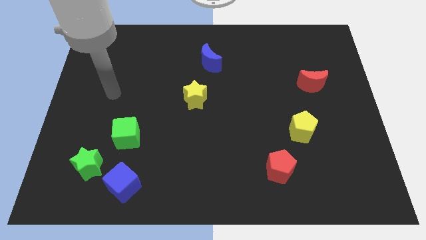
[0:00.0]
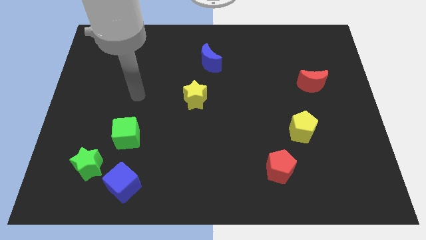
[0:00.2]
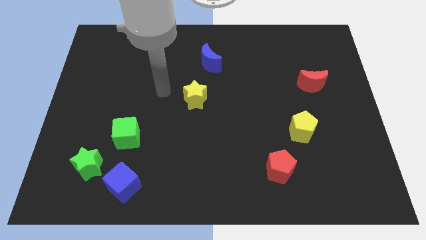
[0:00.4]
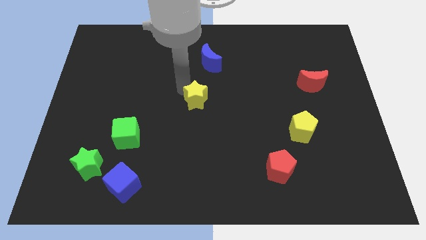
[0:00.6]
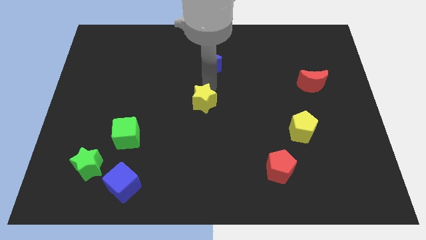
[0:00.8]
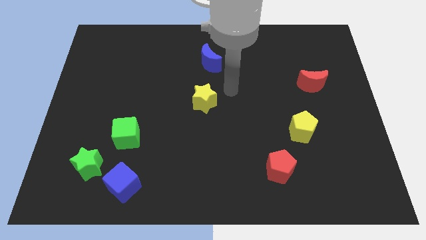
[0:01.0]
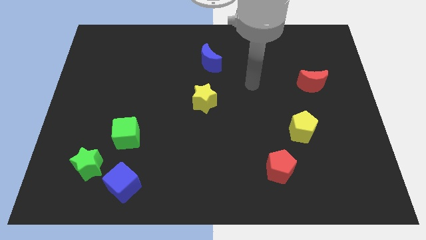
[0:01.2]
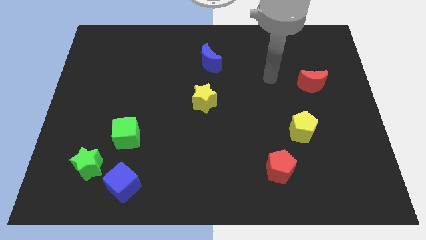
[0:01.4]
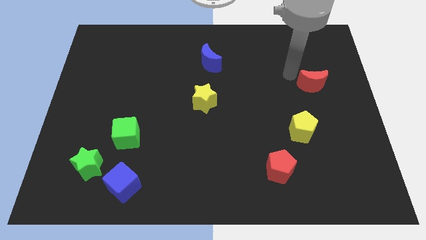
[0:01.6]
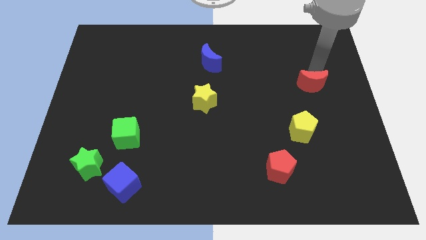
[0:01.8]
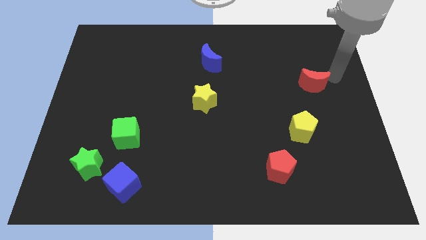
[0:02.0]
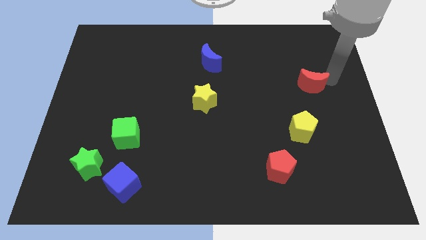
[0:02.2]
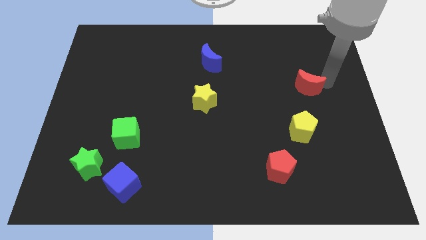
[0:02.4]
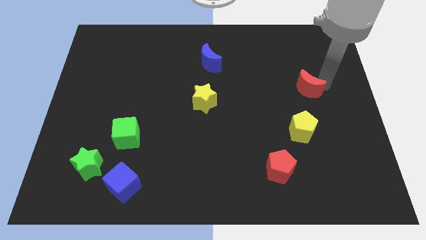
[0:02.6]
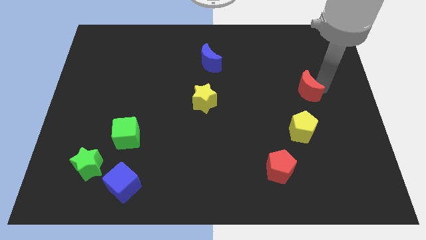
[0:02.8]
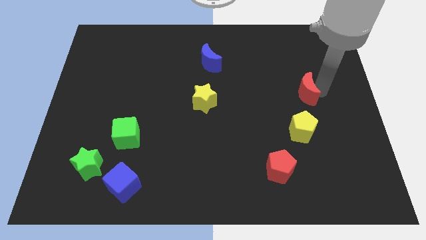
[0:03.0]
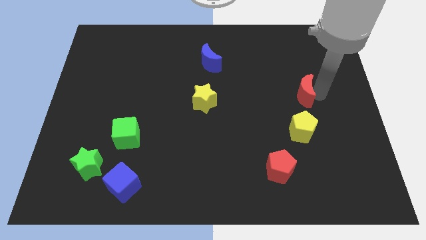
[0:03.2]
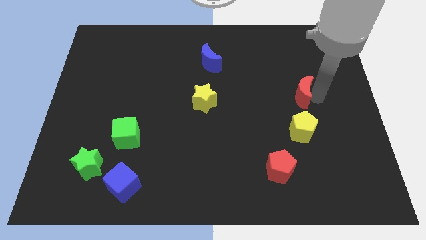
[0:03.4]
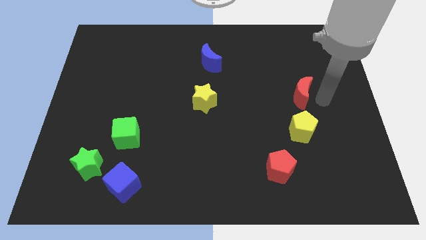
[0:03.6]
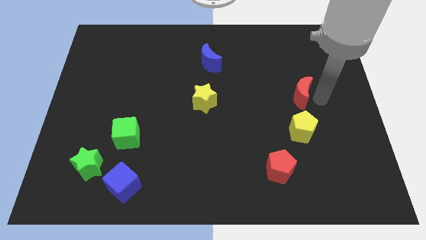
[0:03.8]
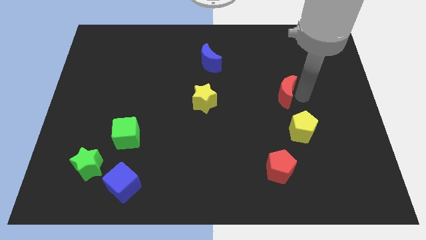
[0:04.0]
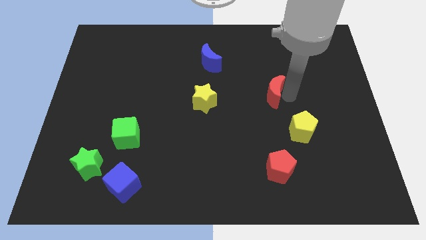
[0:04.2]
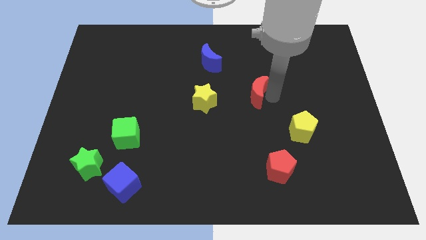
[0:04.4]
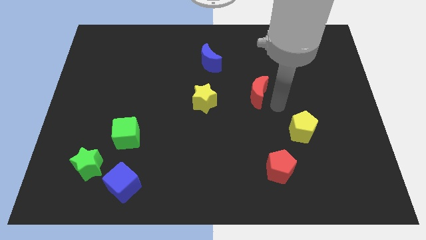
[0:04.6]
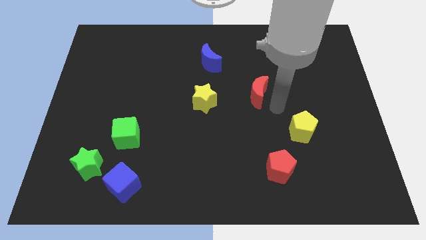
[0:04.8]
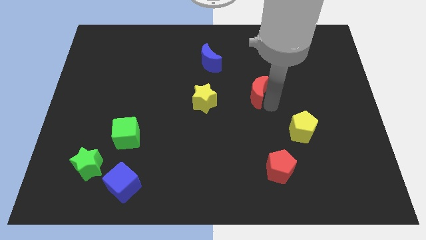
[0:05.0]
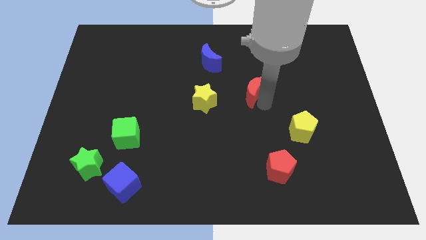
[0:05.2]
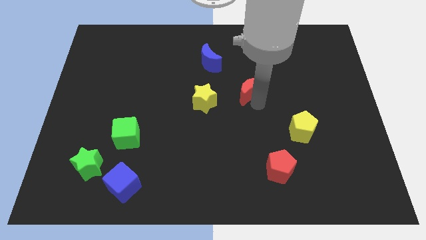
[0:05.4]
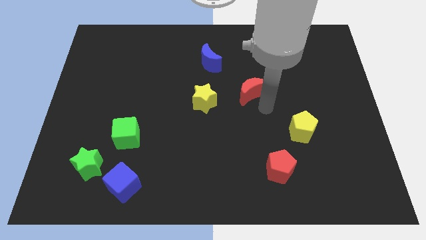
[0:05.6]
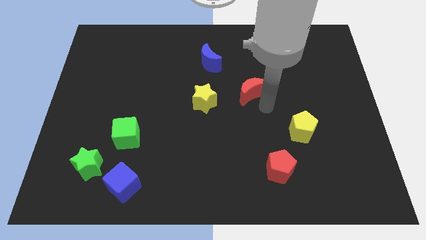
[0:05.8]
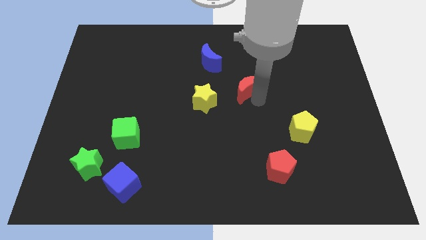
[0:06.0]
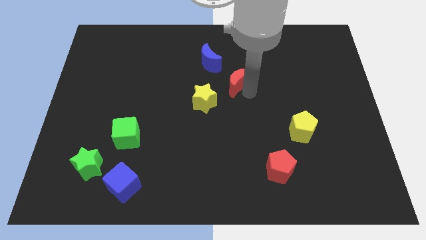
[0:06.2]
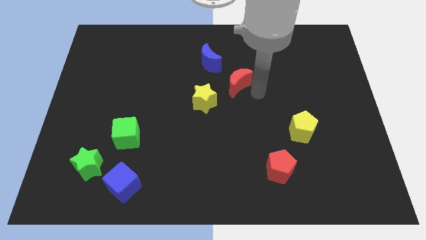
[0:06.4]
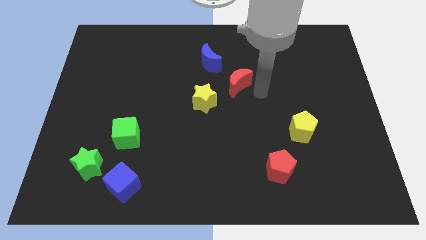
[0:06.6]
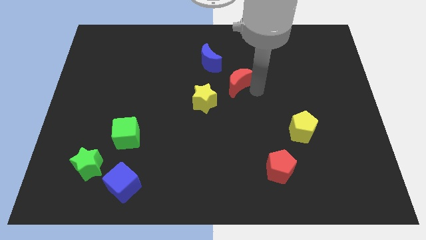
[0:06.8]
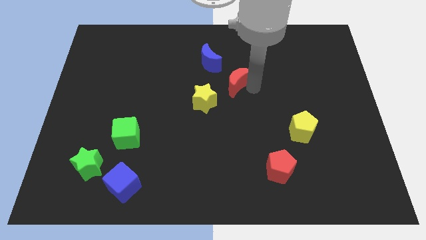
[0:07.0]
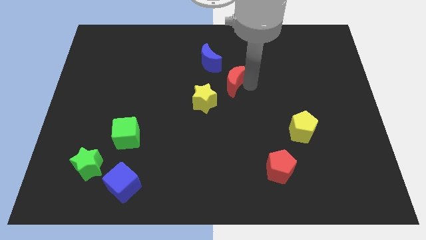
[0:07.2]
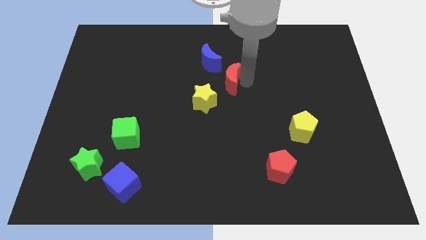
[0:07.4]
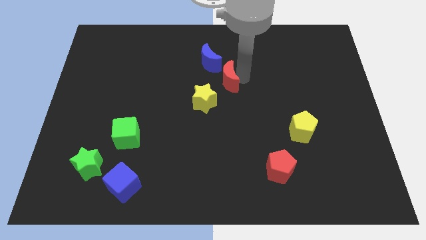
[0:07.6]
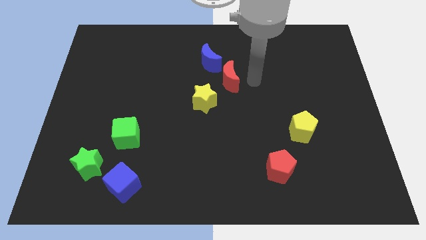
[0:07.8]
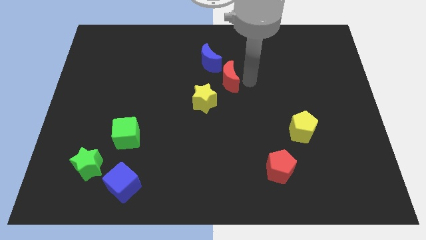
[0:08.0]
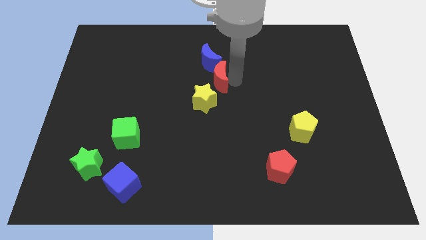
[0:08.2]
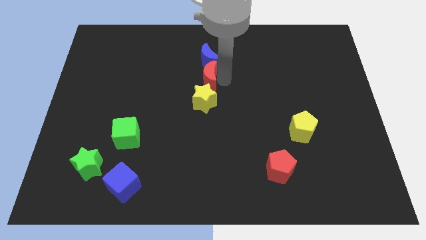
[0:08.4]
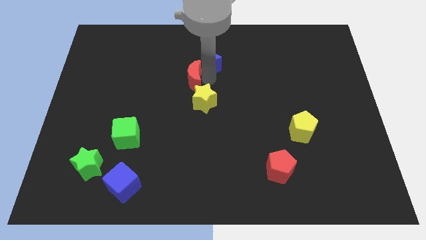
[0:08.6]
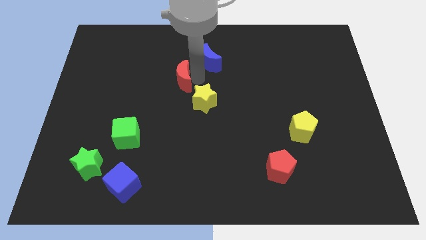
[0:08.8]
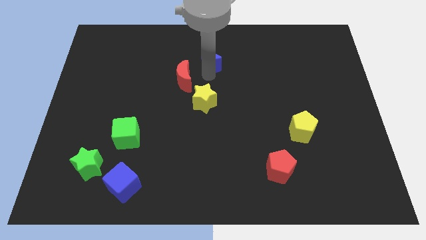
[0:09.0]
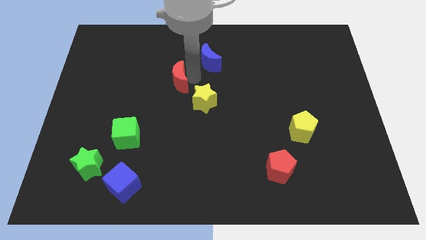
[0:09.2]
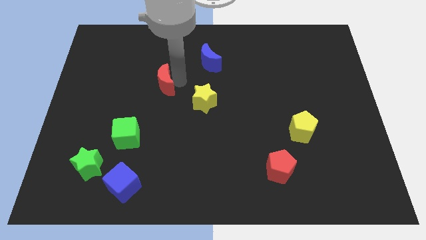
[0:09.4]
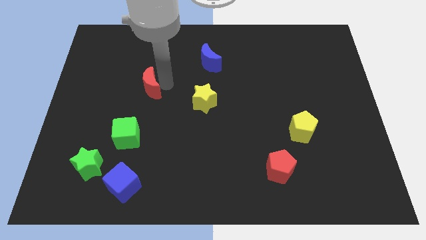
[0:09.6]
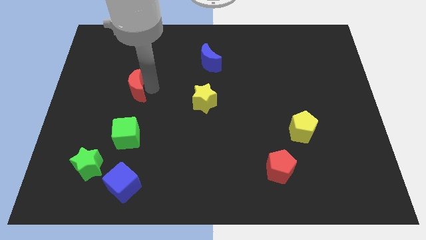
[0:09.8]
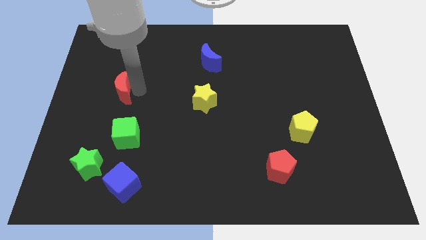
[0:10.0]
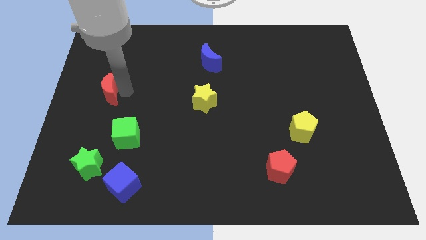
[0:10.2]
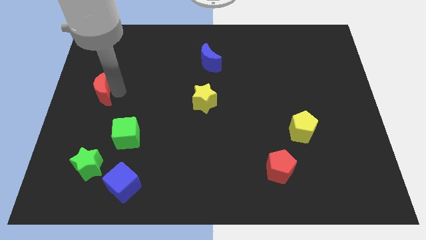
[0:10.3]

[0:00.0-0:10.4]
put the red moon to the left side of the board

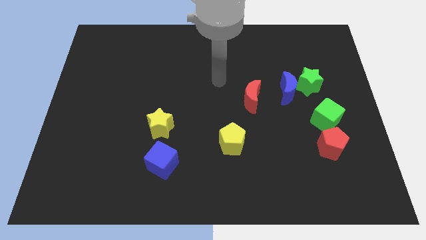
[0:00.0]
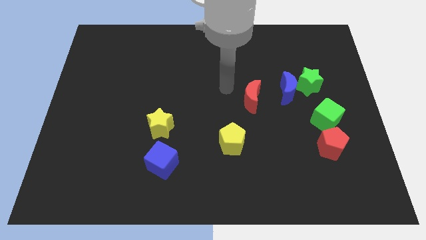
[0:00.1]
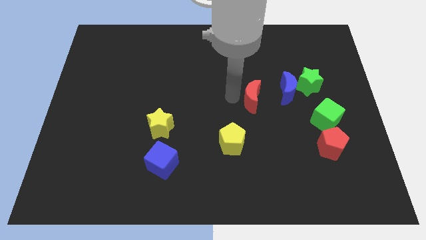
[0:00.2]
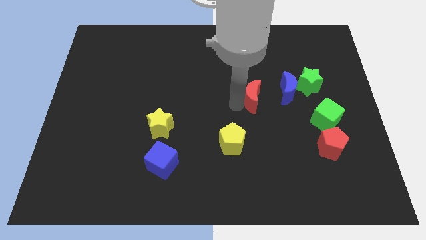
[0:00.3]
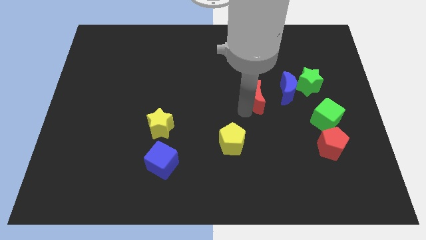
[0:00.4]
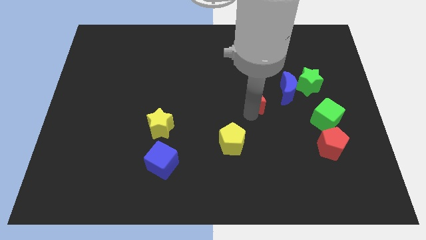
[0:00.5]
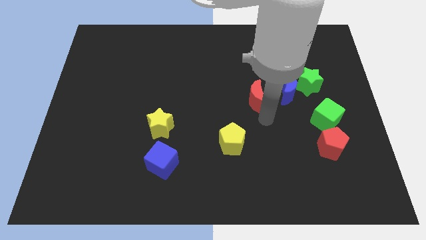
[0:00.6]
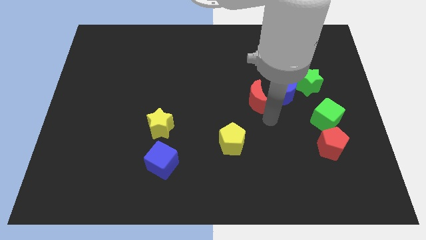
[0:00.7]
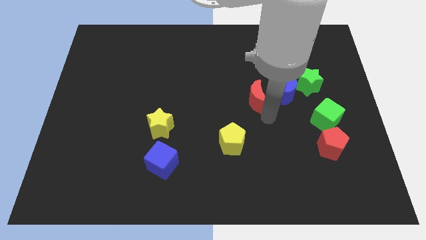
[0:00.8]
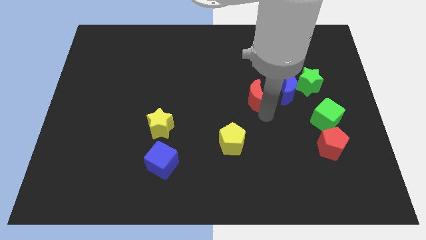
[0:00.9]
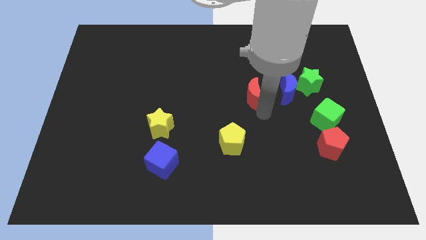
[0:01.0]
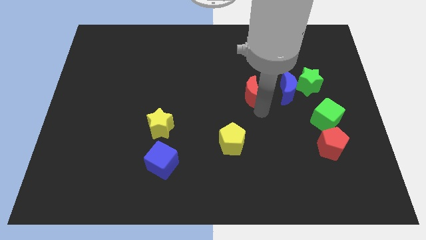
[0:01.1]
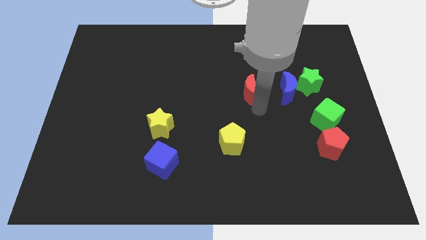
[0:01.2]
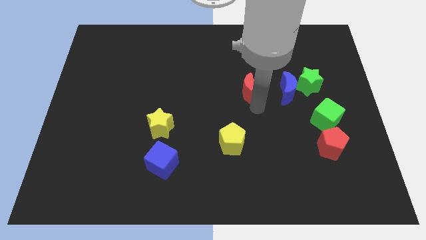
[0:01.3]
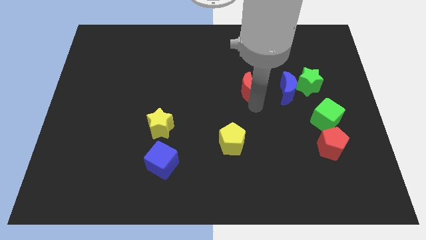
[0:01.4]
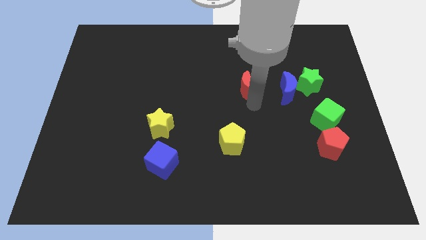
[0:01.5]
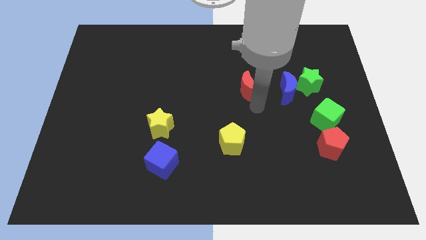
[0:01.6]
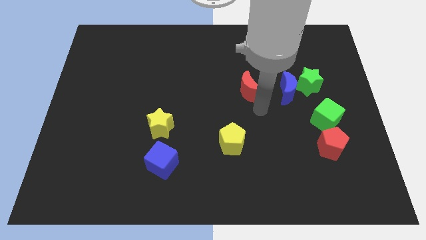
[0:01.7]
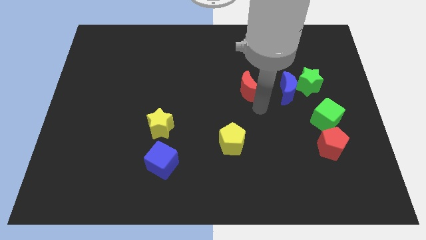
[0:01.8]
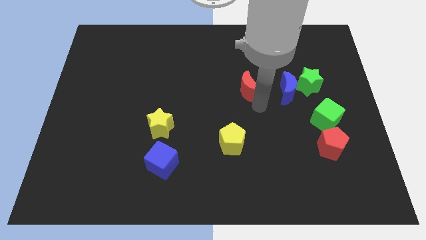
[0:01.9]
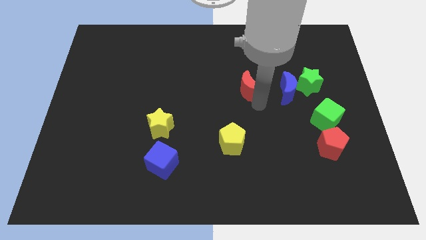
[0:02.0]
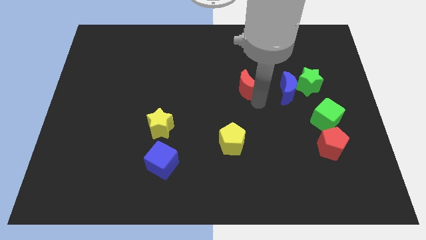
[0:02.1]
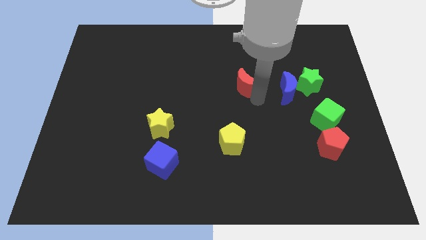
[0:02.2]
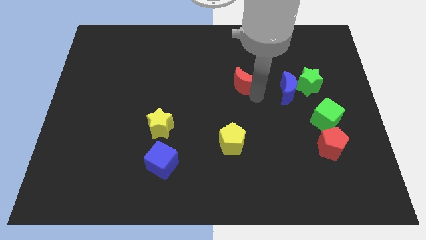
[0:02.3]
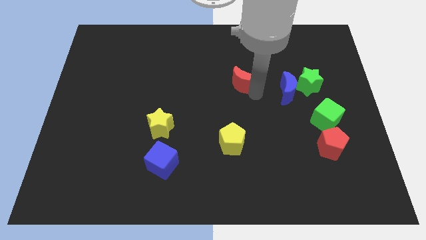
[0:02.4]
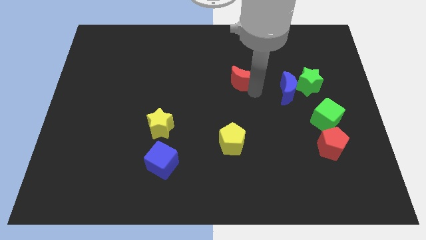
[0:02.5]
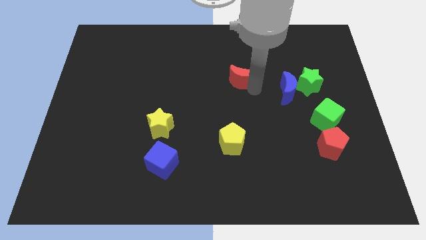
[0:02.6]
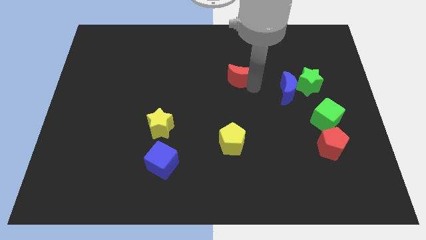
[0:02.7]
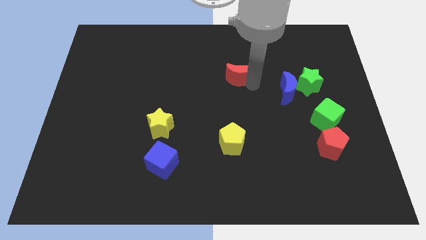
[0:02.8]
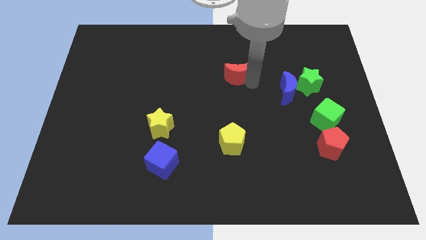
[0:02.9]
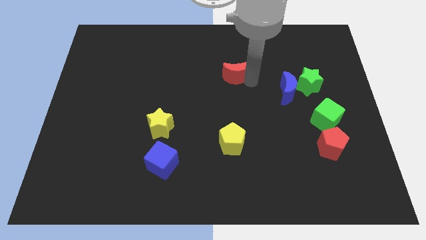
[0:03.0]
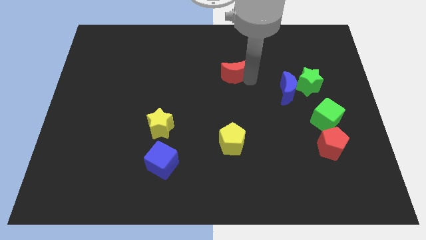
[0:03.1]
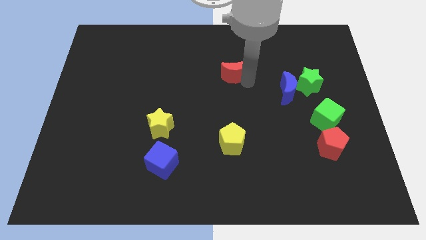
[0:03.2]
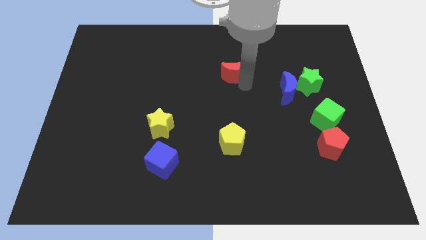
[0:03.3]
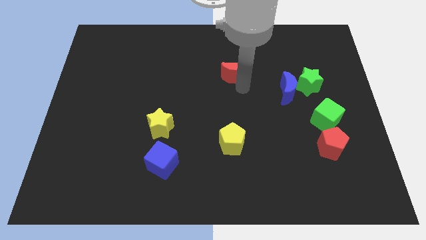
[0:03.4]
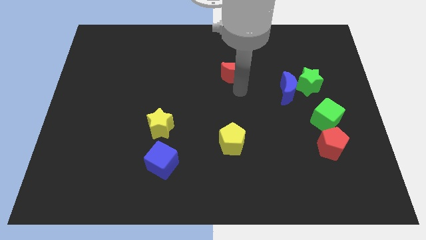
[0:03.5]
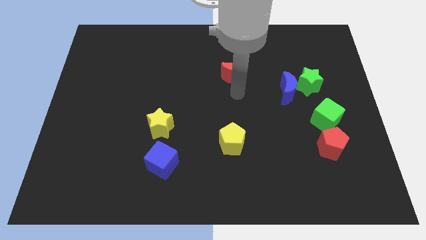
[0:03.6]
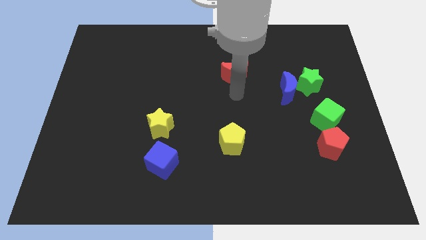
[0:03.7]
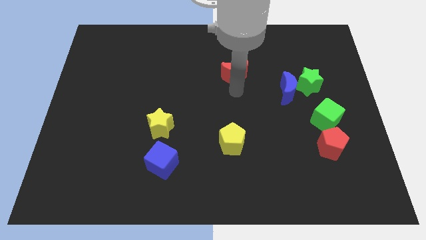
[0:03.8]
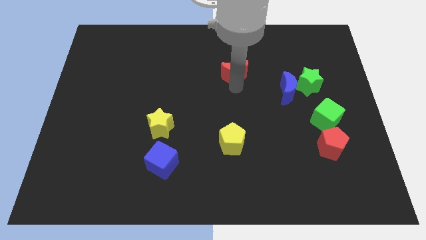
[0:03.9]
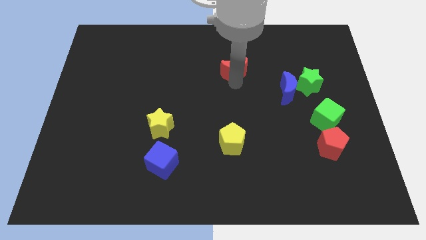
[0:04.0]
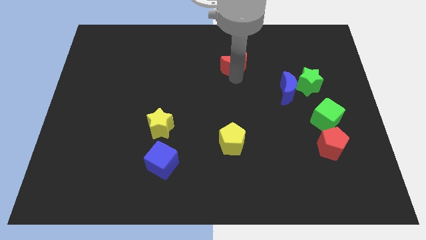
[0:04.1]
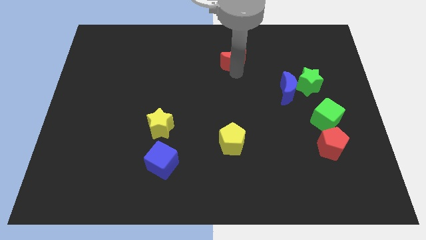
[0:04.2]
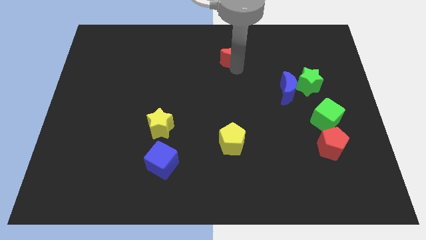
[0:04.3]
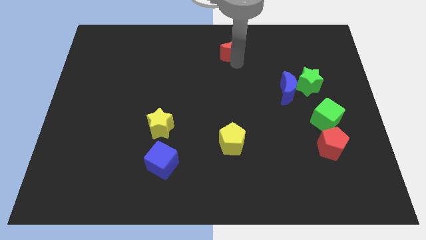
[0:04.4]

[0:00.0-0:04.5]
move the red moon to the top side
